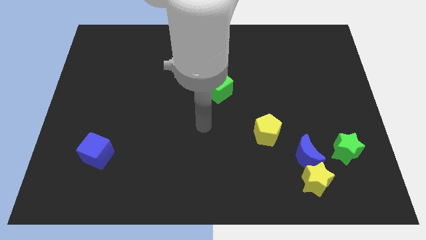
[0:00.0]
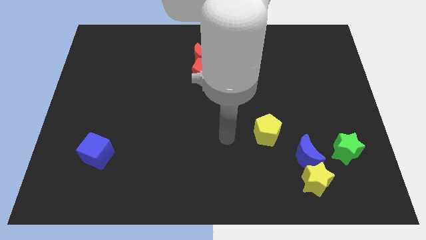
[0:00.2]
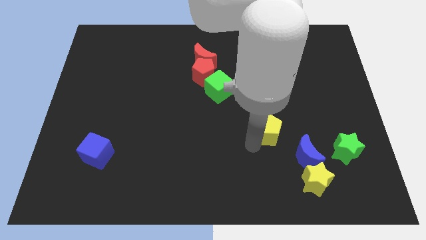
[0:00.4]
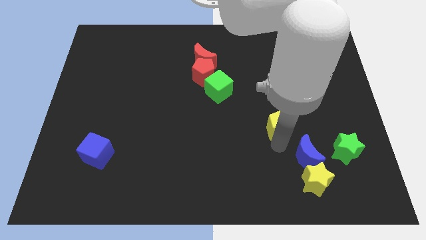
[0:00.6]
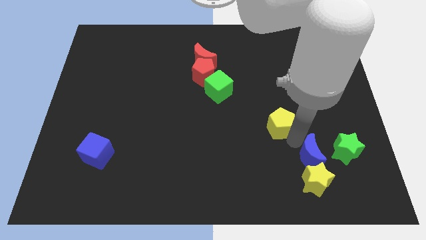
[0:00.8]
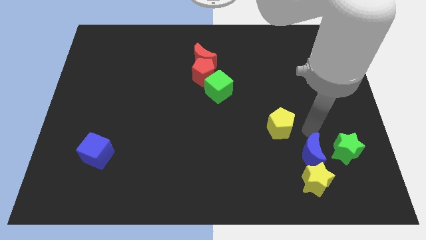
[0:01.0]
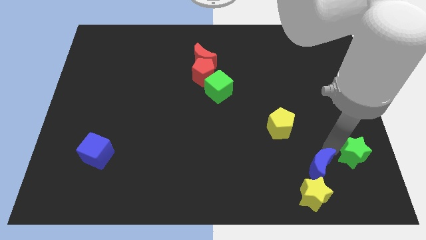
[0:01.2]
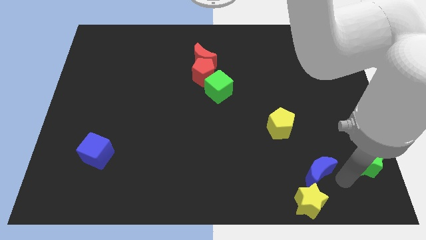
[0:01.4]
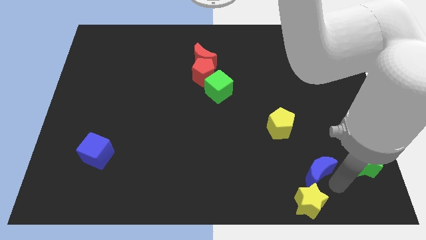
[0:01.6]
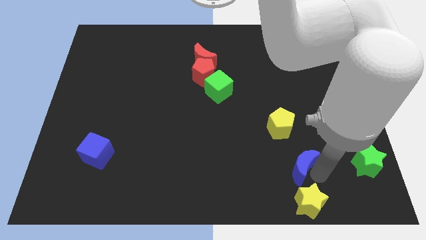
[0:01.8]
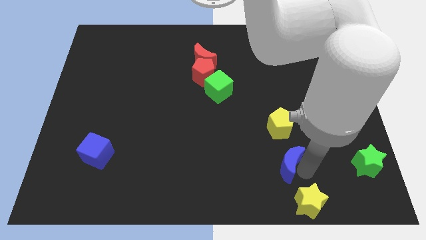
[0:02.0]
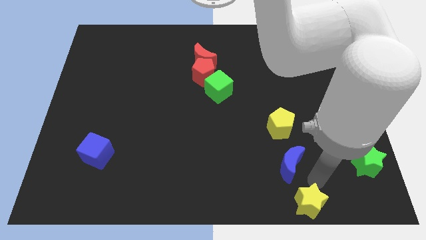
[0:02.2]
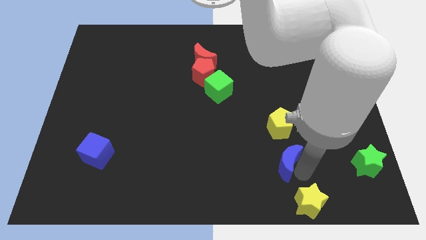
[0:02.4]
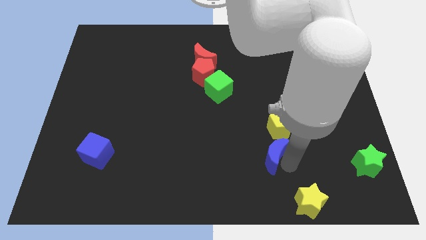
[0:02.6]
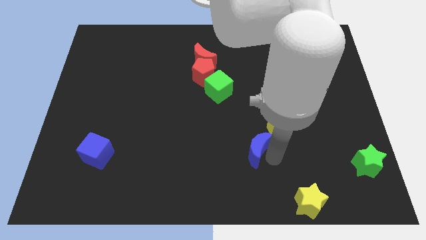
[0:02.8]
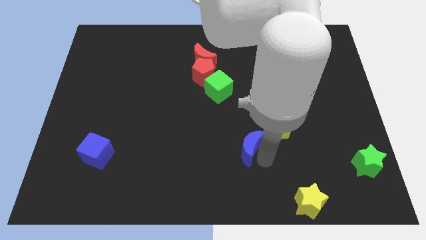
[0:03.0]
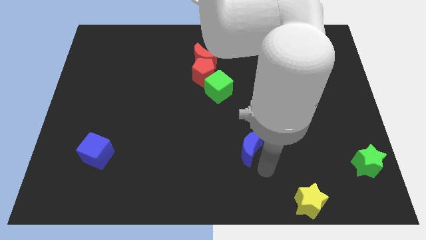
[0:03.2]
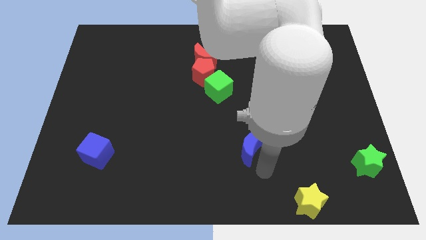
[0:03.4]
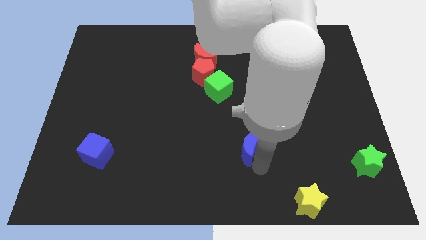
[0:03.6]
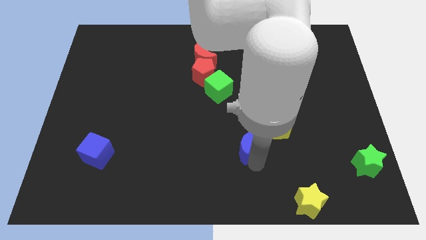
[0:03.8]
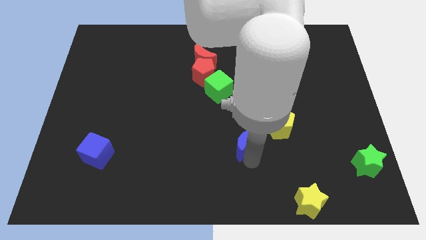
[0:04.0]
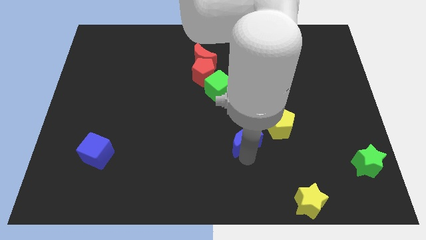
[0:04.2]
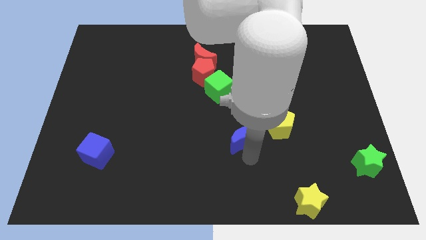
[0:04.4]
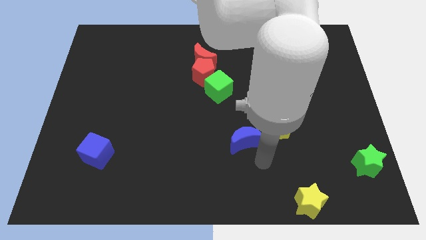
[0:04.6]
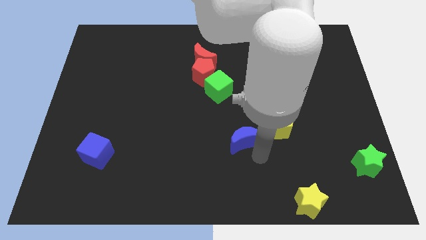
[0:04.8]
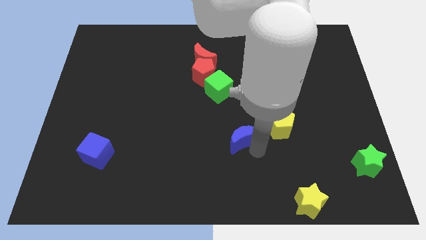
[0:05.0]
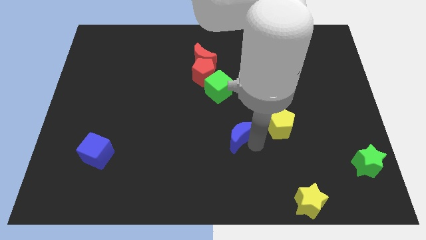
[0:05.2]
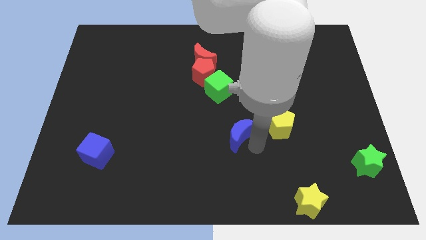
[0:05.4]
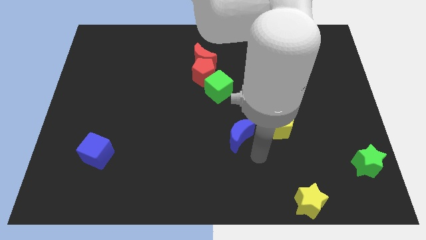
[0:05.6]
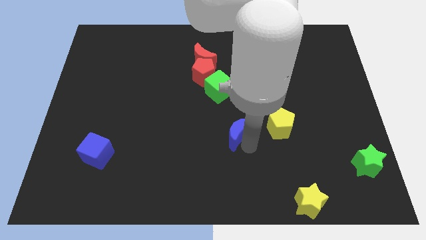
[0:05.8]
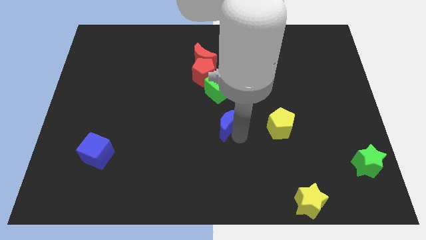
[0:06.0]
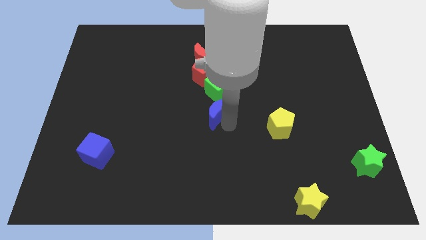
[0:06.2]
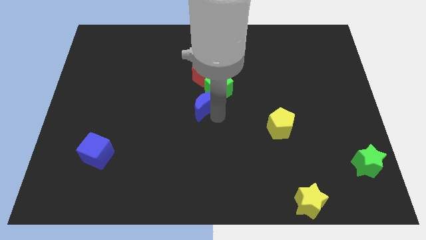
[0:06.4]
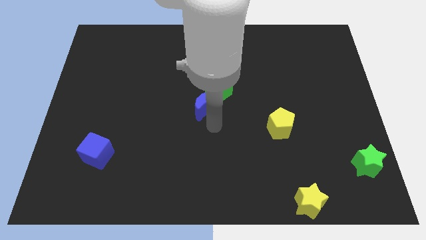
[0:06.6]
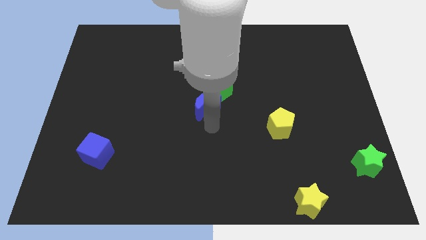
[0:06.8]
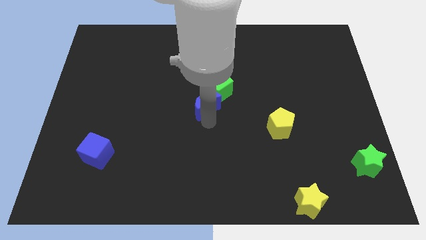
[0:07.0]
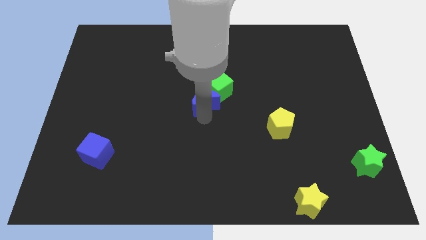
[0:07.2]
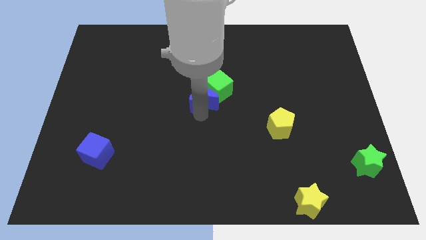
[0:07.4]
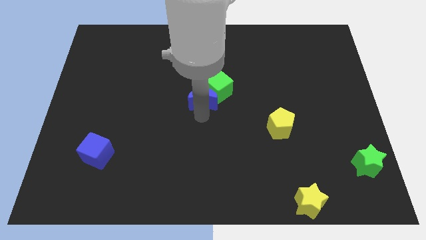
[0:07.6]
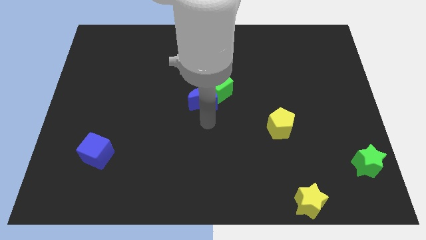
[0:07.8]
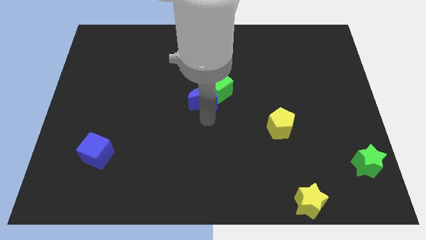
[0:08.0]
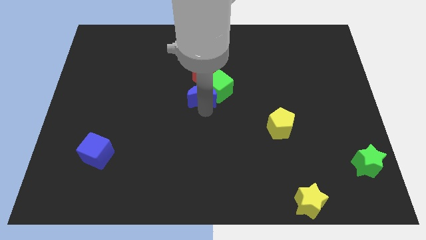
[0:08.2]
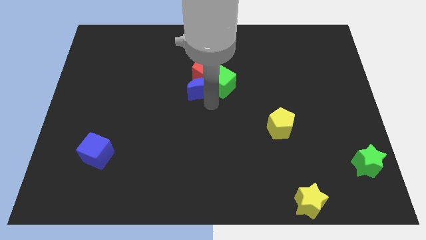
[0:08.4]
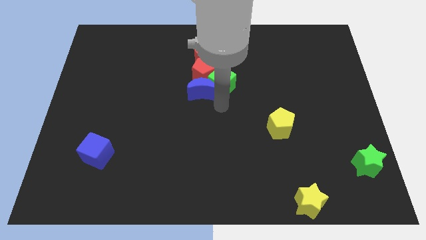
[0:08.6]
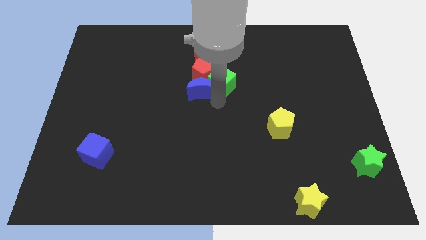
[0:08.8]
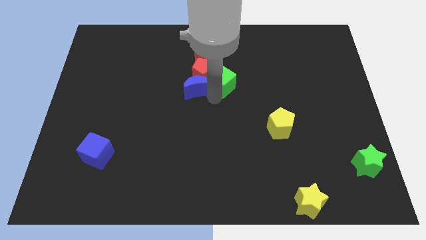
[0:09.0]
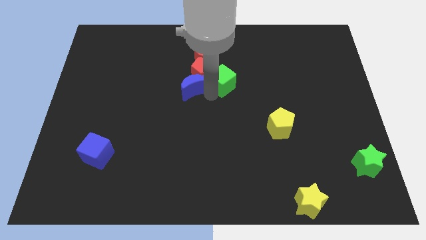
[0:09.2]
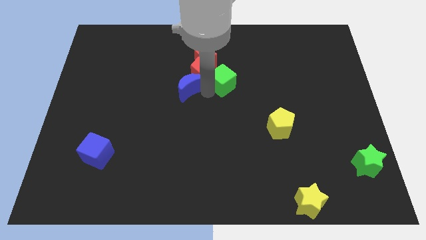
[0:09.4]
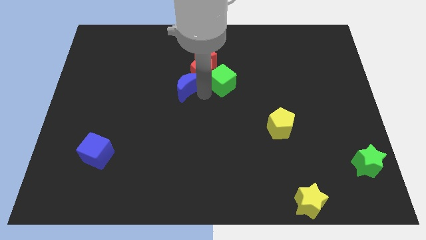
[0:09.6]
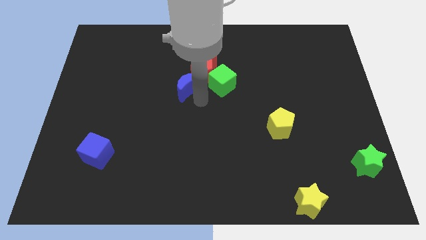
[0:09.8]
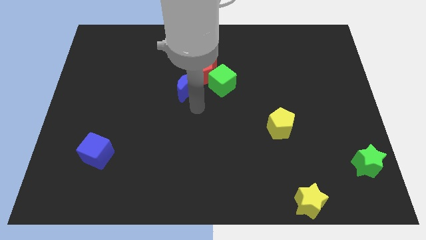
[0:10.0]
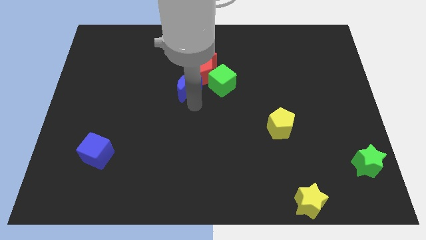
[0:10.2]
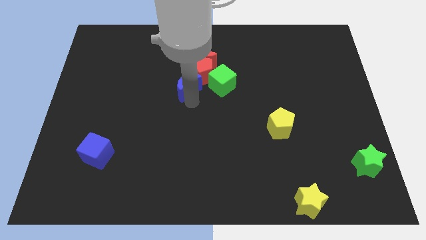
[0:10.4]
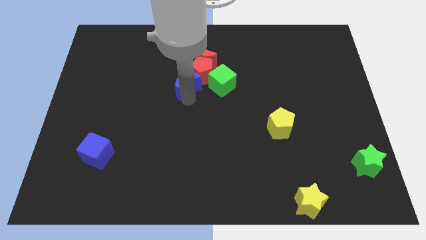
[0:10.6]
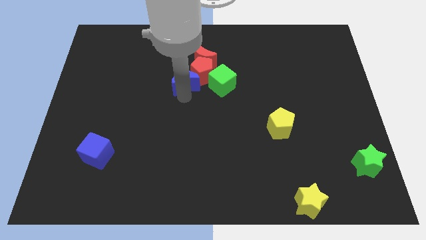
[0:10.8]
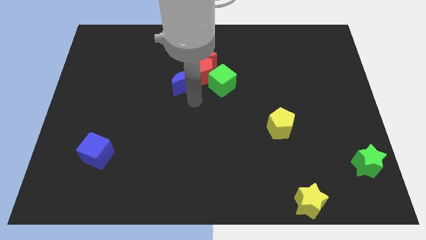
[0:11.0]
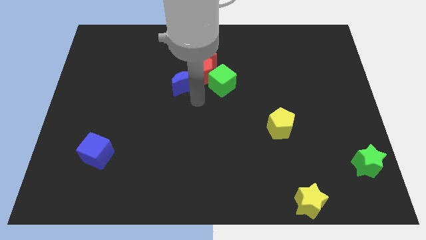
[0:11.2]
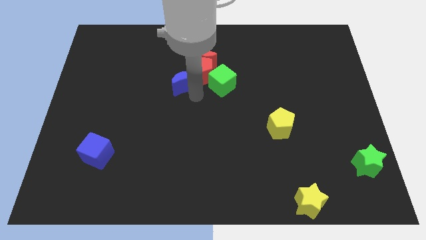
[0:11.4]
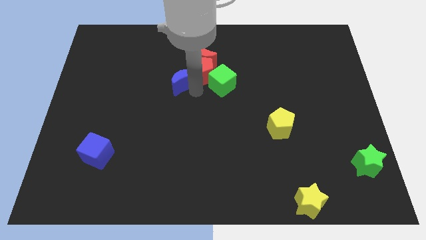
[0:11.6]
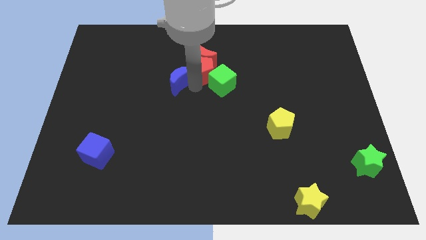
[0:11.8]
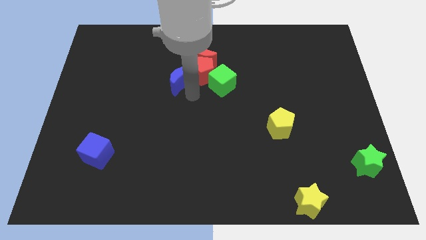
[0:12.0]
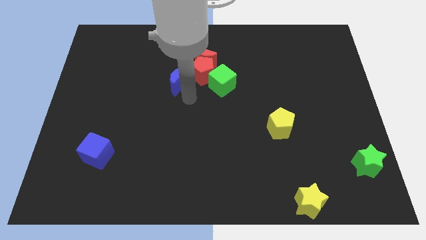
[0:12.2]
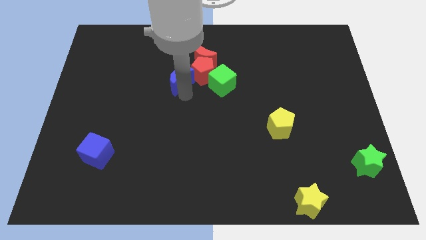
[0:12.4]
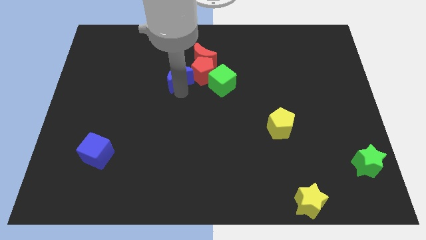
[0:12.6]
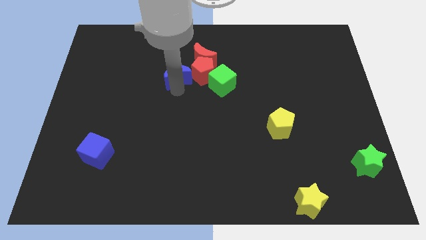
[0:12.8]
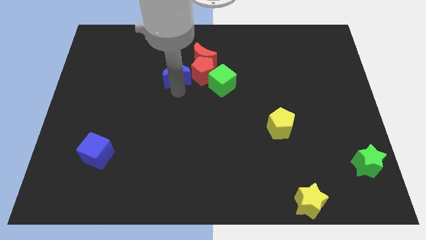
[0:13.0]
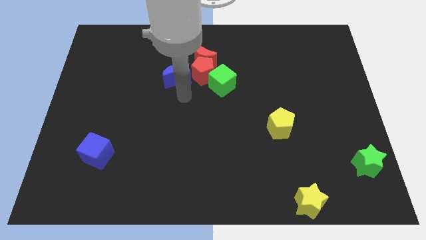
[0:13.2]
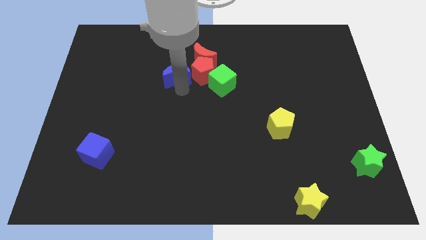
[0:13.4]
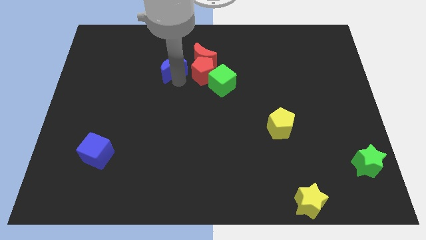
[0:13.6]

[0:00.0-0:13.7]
move the blue moon left of the red moon

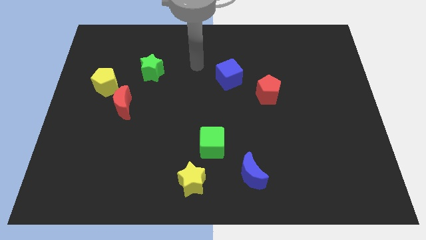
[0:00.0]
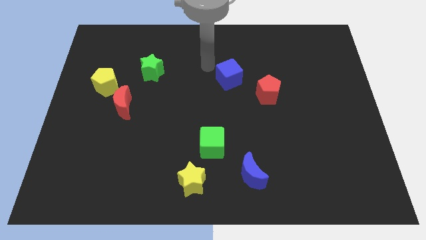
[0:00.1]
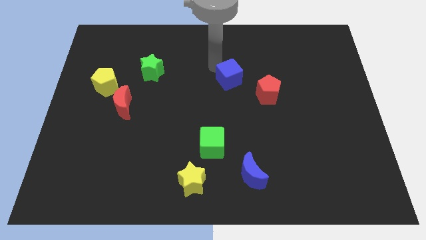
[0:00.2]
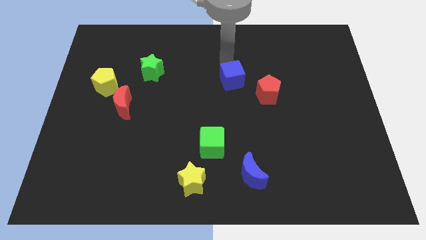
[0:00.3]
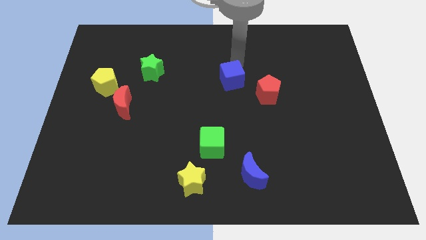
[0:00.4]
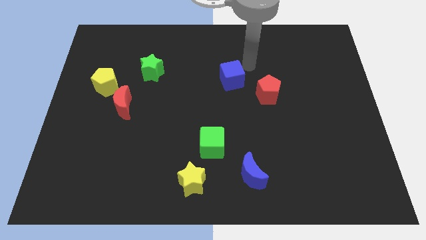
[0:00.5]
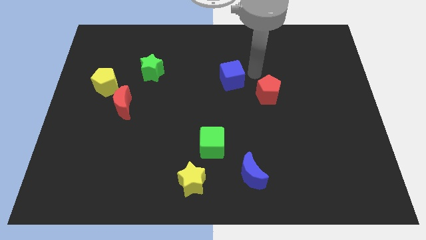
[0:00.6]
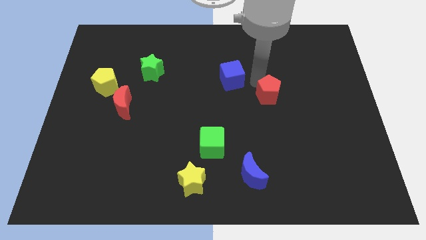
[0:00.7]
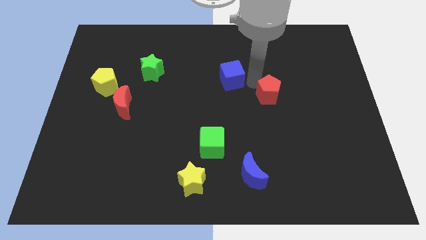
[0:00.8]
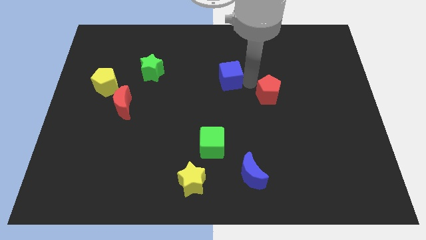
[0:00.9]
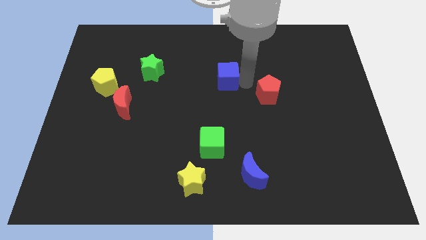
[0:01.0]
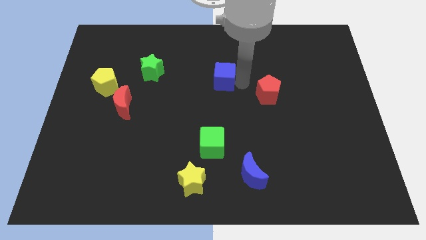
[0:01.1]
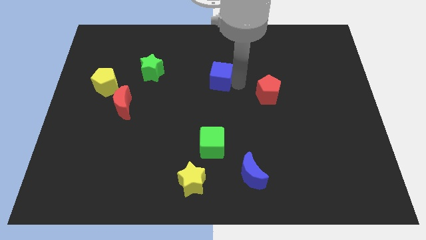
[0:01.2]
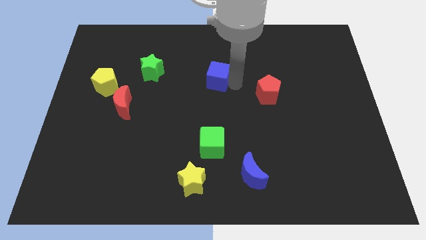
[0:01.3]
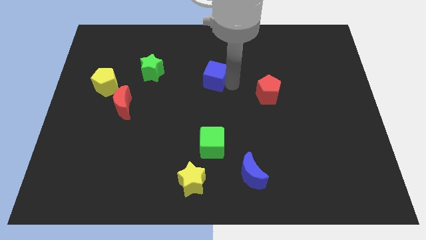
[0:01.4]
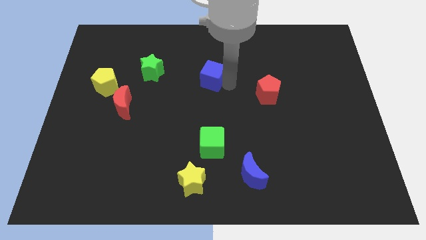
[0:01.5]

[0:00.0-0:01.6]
move the blue cube to the right side of the green star
